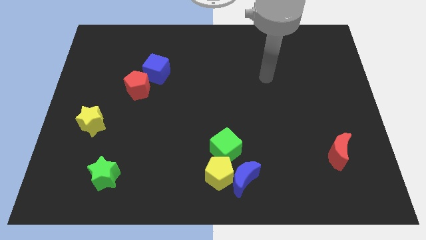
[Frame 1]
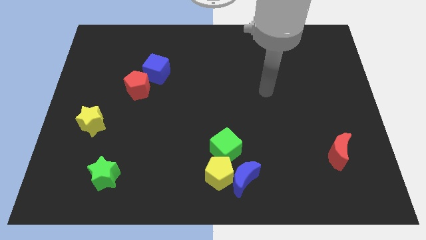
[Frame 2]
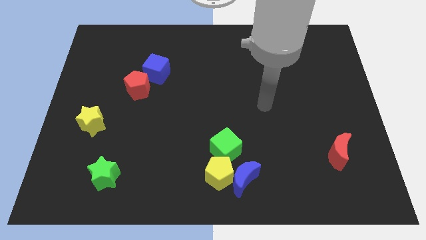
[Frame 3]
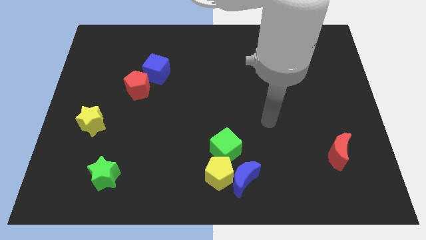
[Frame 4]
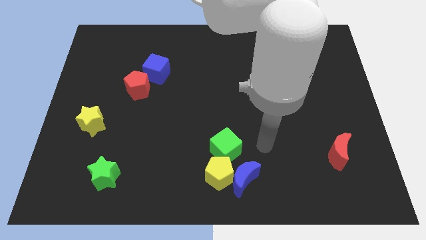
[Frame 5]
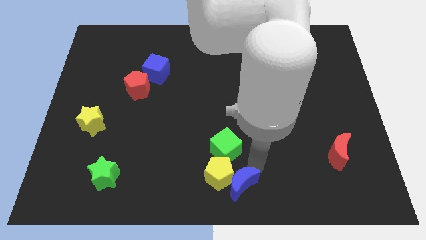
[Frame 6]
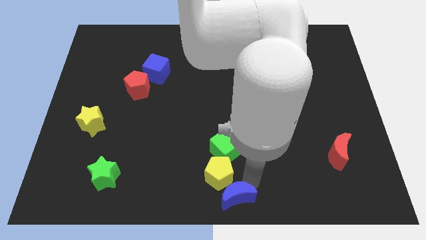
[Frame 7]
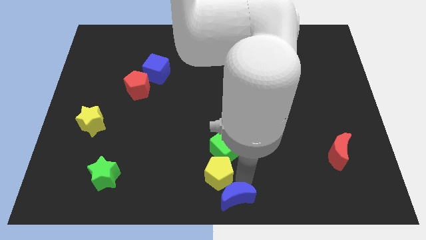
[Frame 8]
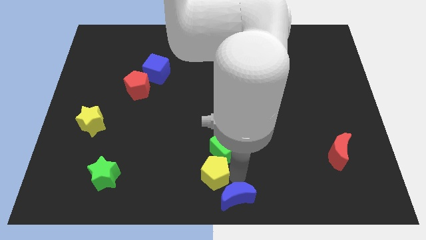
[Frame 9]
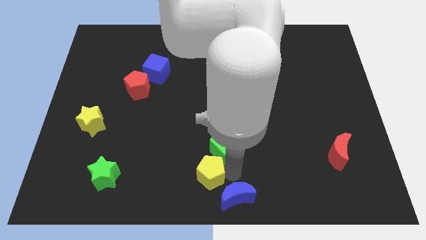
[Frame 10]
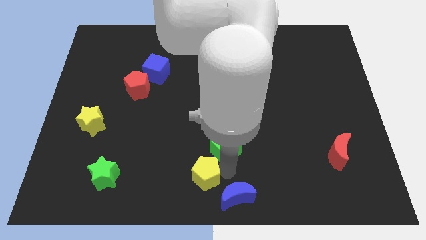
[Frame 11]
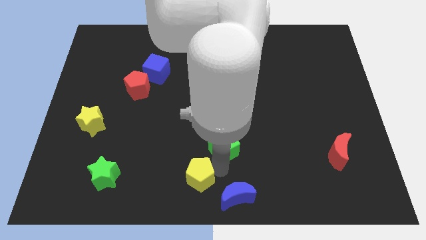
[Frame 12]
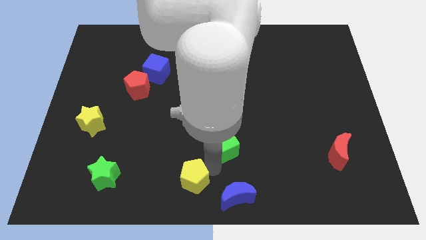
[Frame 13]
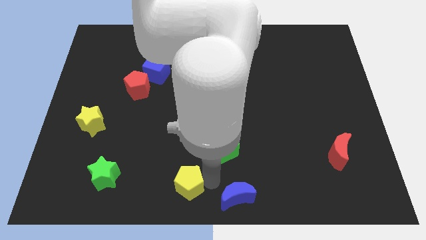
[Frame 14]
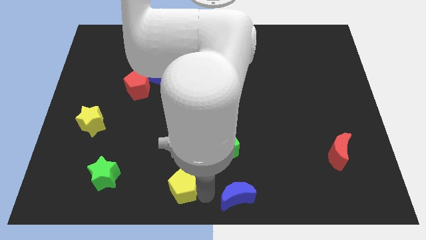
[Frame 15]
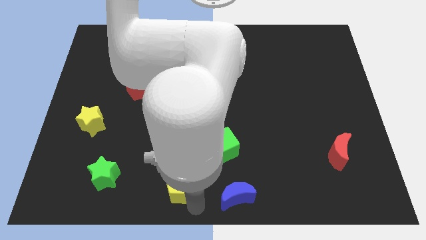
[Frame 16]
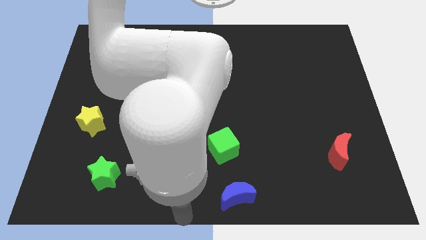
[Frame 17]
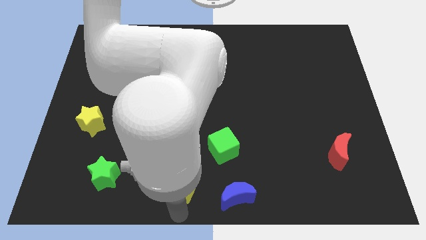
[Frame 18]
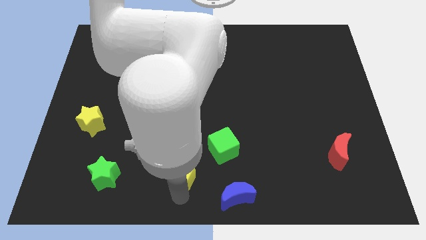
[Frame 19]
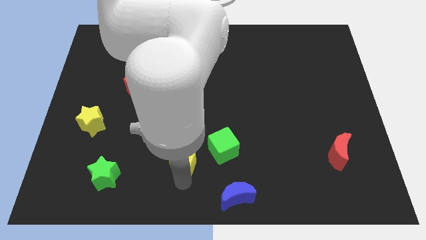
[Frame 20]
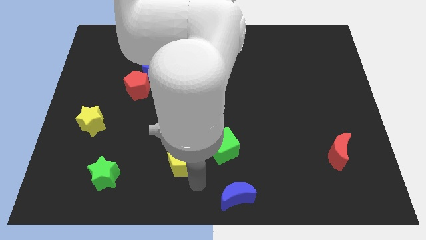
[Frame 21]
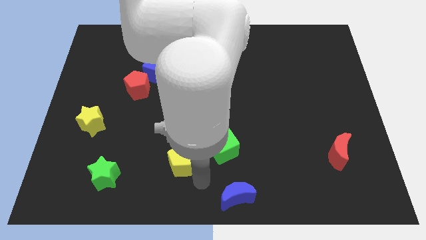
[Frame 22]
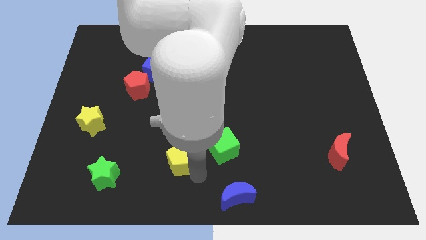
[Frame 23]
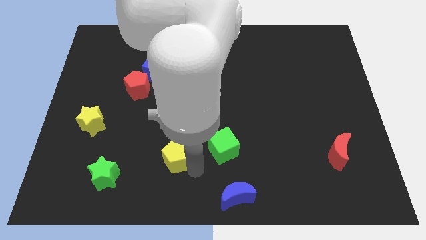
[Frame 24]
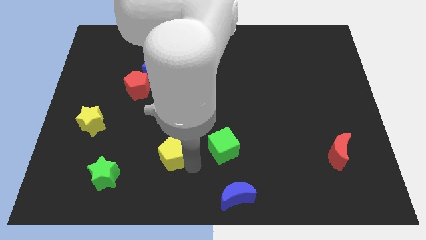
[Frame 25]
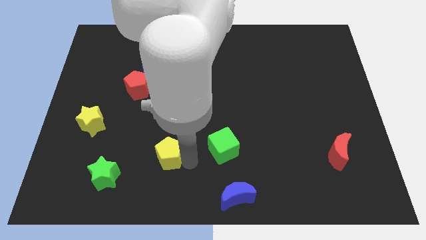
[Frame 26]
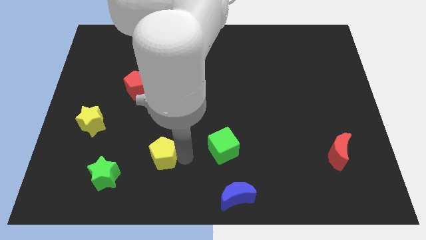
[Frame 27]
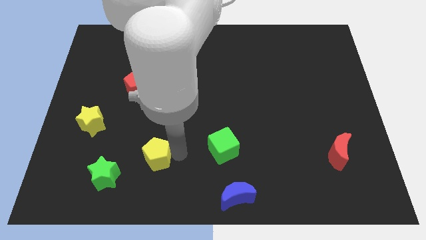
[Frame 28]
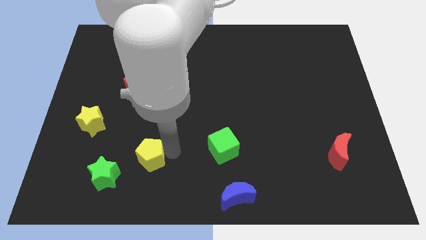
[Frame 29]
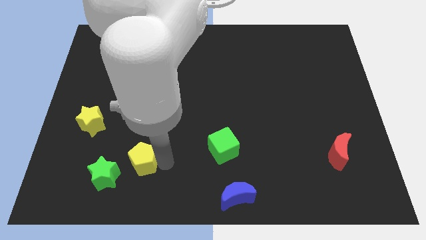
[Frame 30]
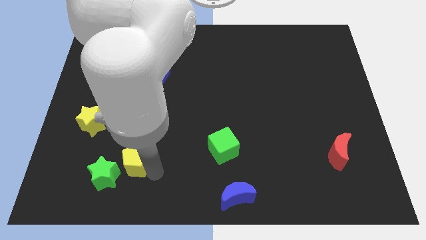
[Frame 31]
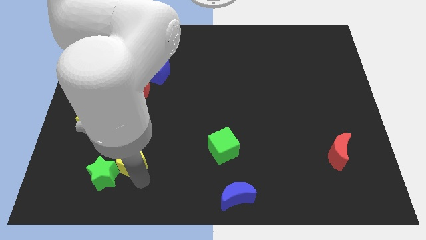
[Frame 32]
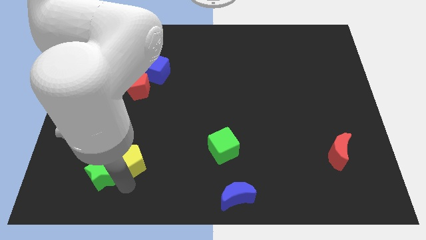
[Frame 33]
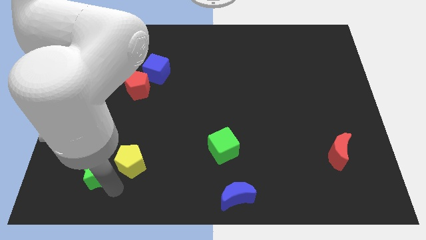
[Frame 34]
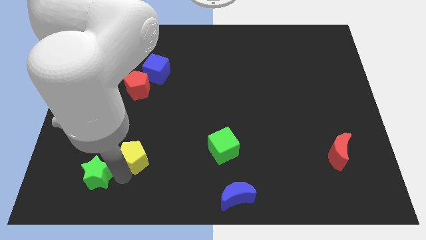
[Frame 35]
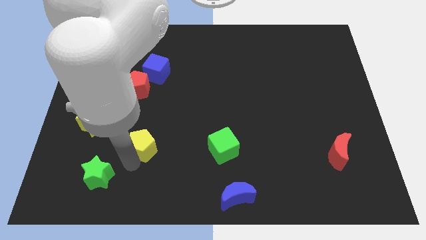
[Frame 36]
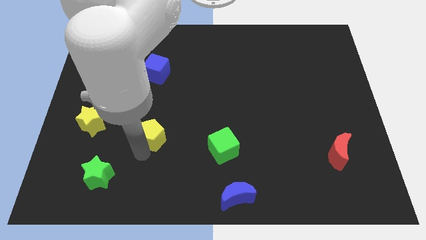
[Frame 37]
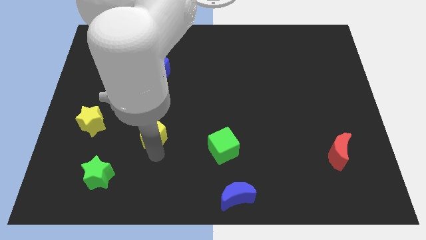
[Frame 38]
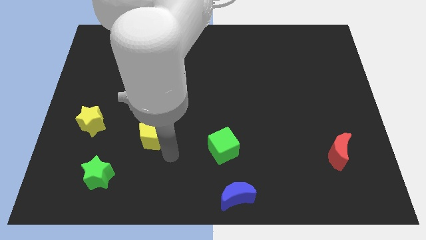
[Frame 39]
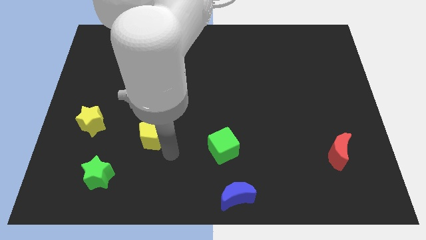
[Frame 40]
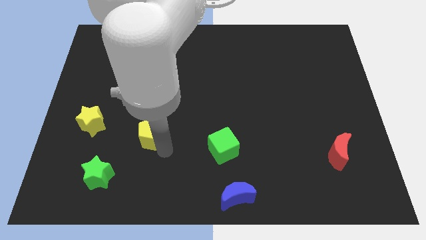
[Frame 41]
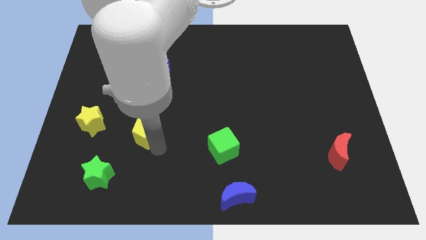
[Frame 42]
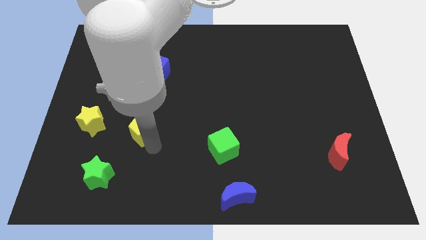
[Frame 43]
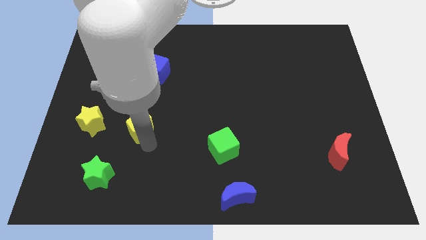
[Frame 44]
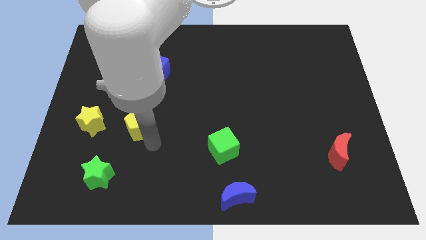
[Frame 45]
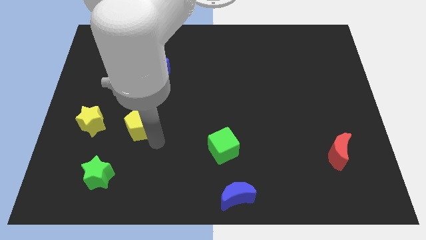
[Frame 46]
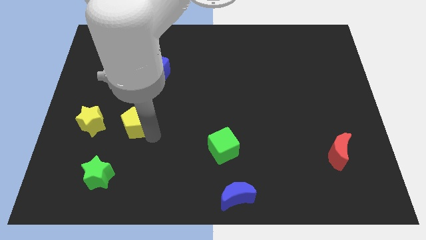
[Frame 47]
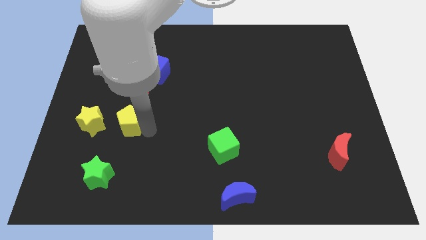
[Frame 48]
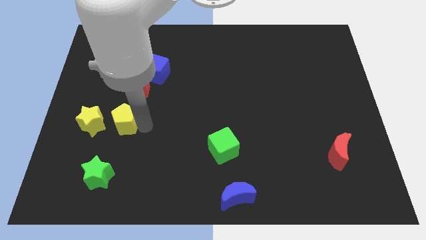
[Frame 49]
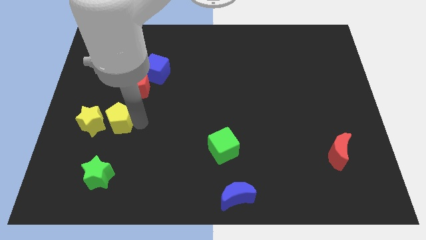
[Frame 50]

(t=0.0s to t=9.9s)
slide the yellow pentagon diagonally down and to the left of the red pentagon

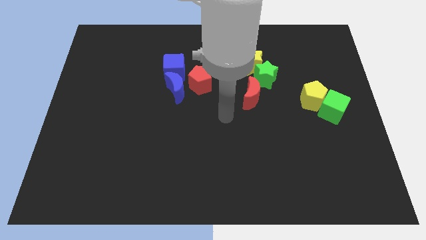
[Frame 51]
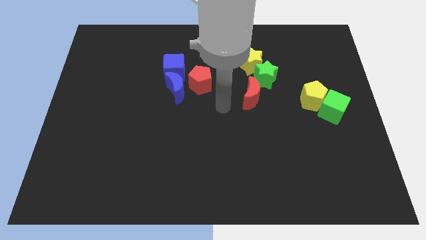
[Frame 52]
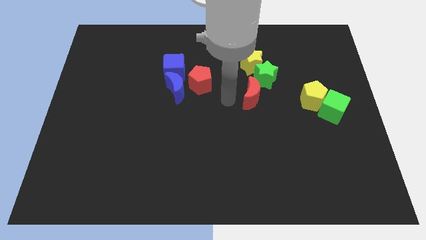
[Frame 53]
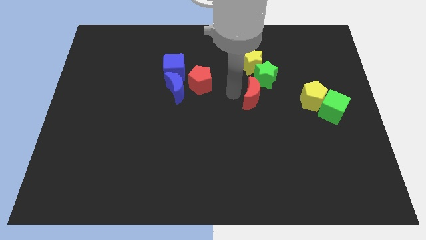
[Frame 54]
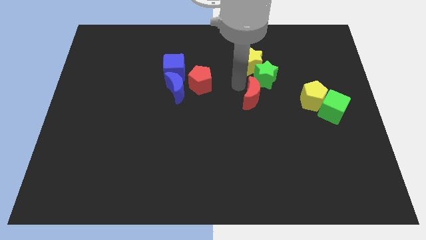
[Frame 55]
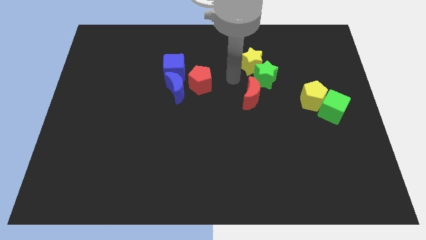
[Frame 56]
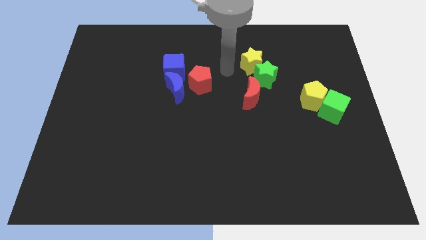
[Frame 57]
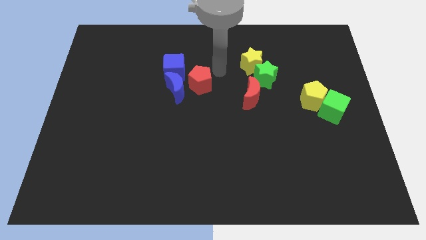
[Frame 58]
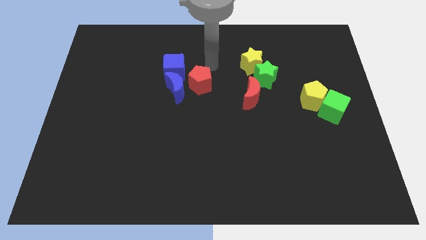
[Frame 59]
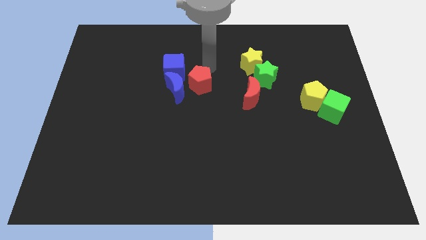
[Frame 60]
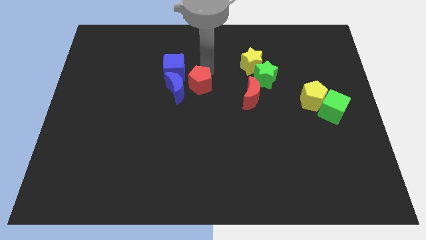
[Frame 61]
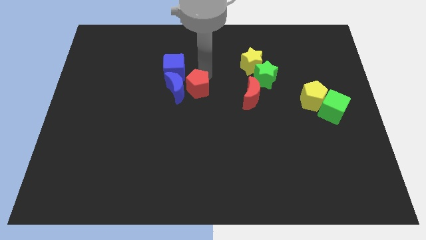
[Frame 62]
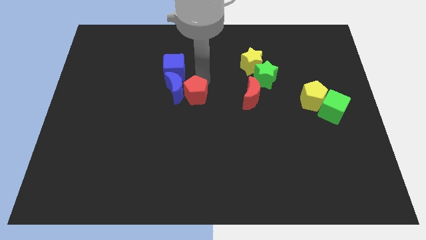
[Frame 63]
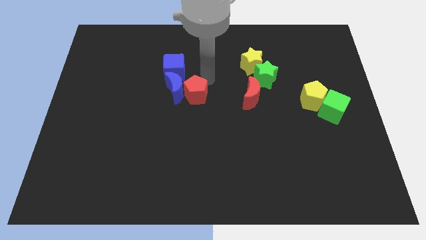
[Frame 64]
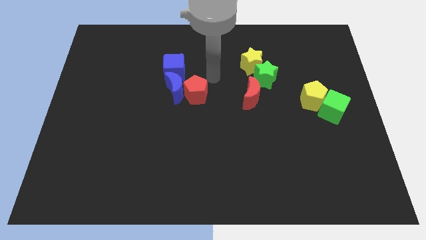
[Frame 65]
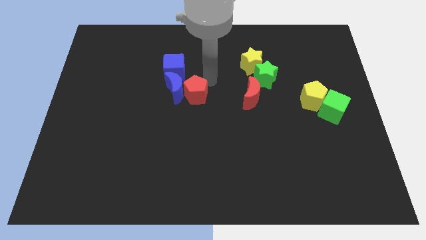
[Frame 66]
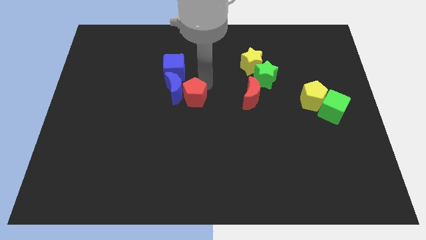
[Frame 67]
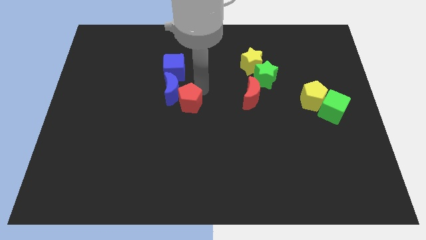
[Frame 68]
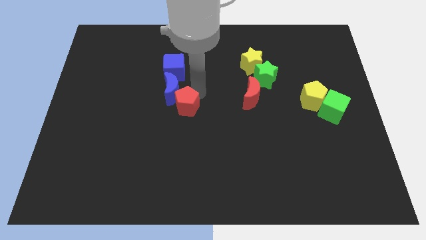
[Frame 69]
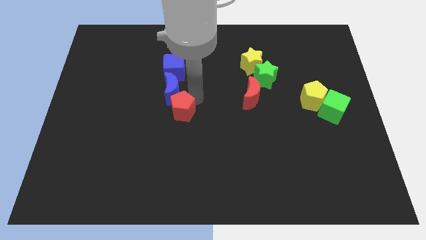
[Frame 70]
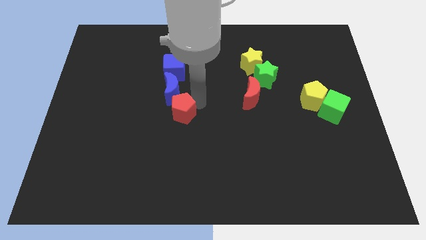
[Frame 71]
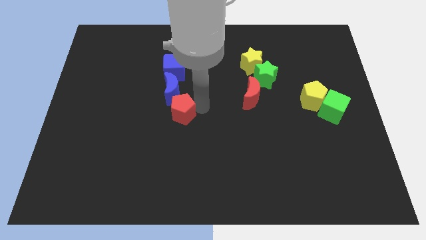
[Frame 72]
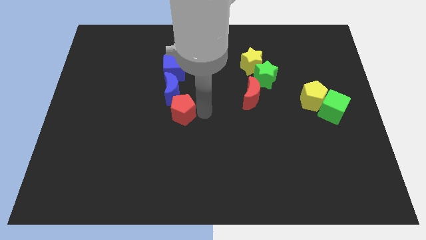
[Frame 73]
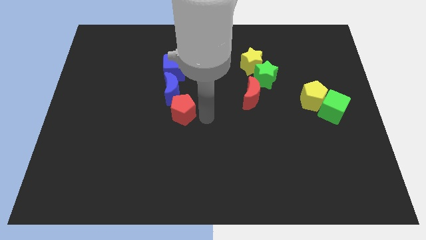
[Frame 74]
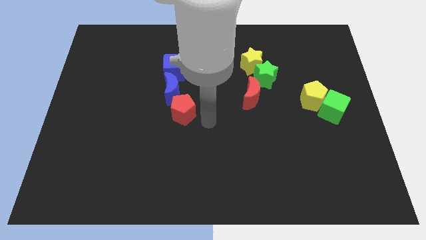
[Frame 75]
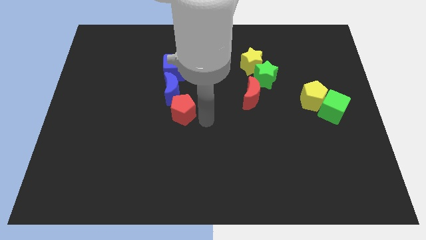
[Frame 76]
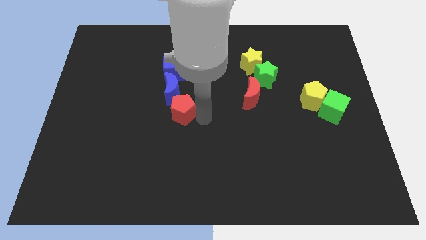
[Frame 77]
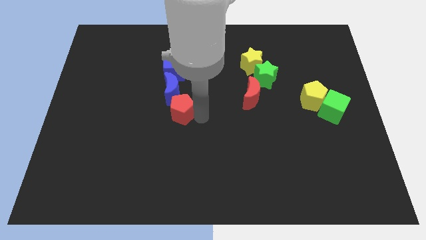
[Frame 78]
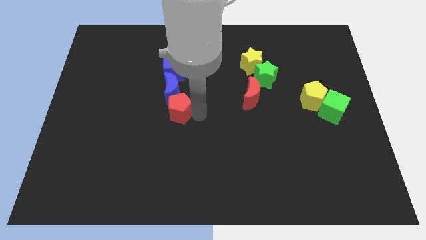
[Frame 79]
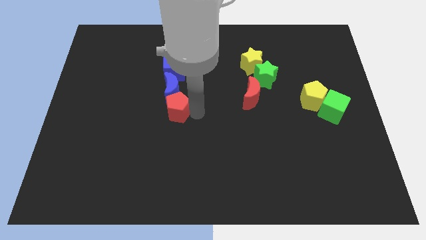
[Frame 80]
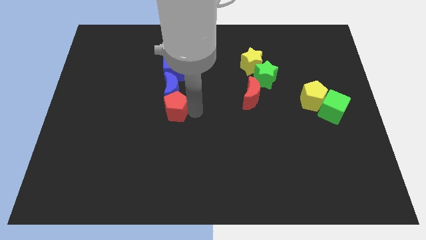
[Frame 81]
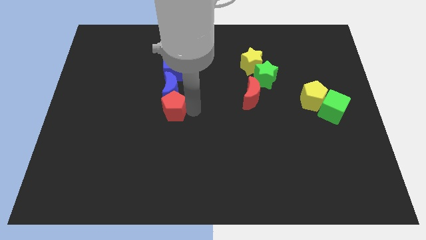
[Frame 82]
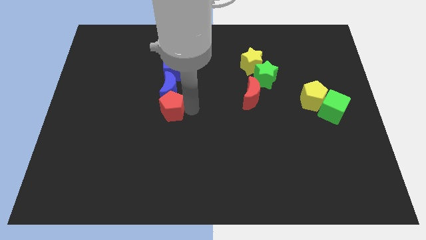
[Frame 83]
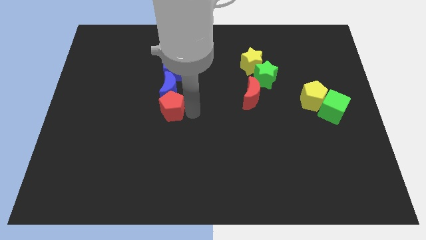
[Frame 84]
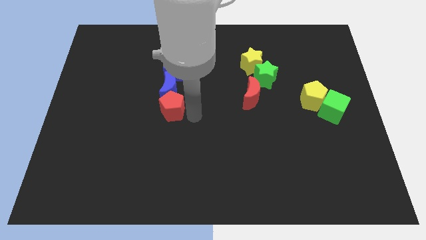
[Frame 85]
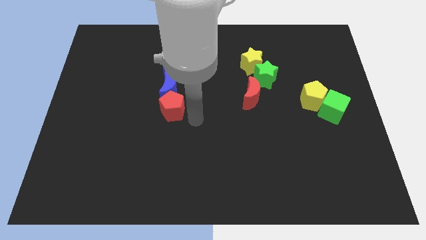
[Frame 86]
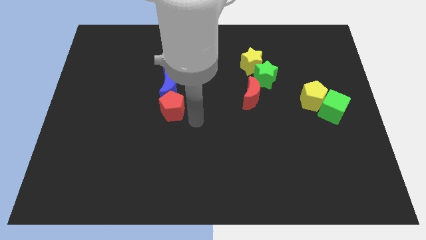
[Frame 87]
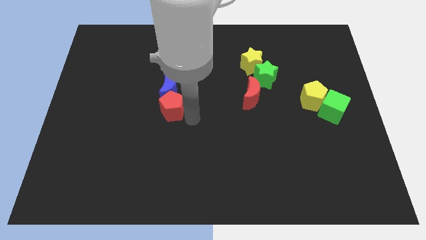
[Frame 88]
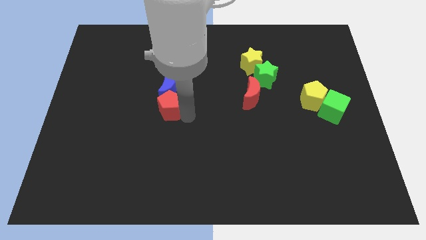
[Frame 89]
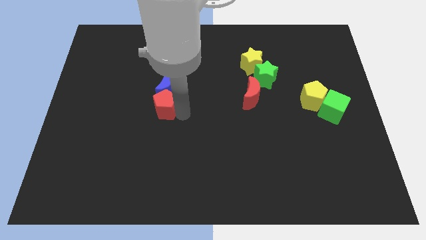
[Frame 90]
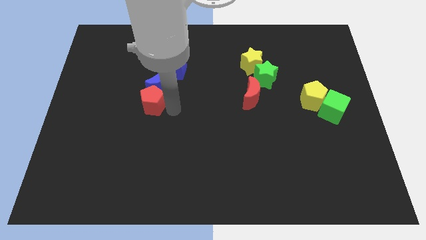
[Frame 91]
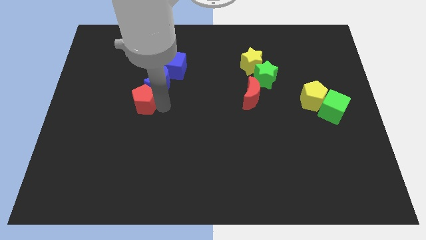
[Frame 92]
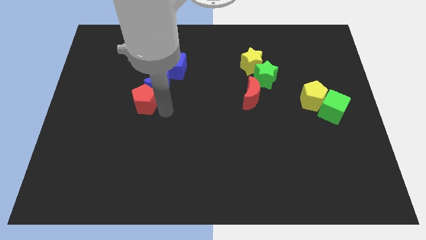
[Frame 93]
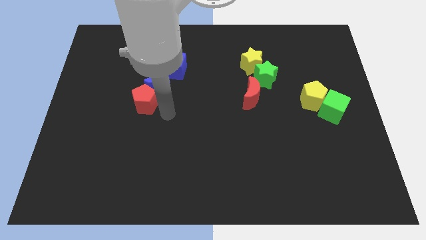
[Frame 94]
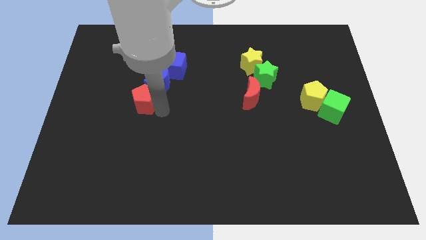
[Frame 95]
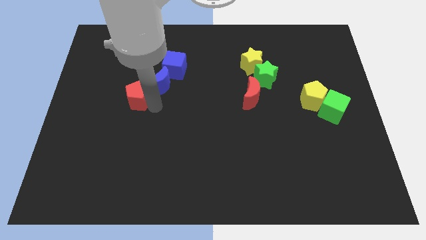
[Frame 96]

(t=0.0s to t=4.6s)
move the red pentagon to the left of the blue moon
